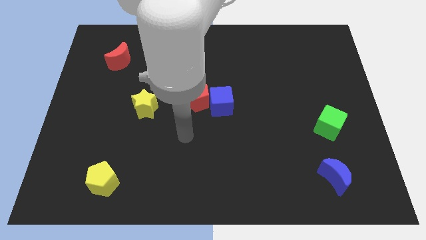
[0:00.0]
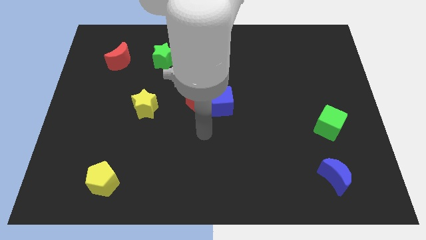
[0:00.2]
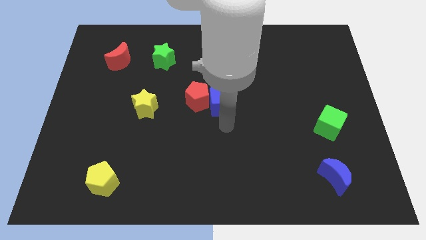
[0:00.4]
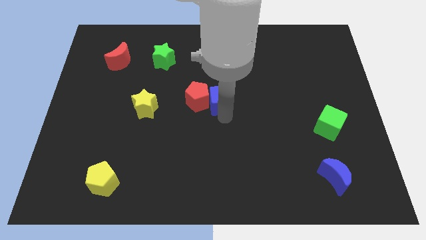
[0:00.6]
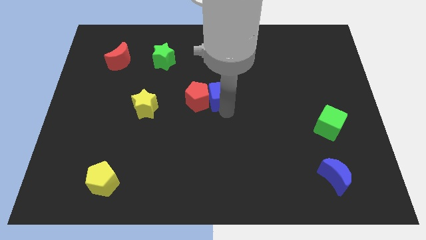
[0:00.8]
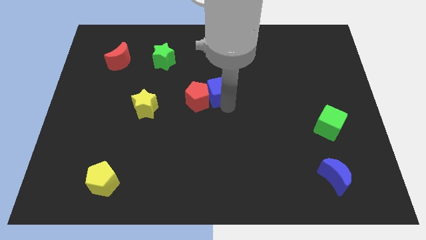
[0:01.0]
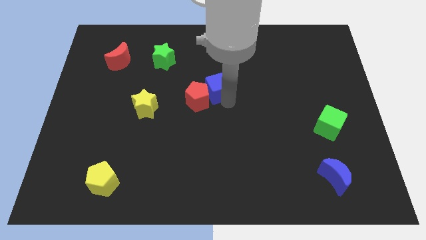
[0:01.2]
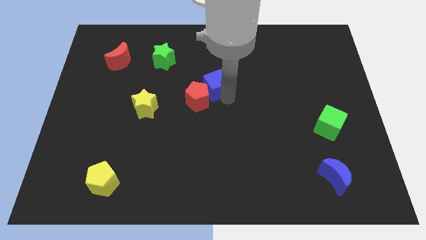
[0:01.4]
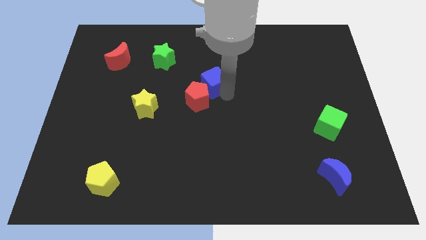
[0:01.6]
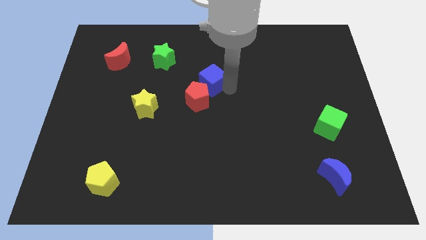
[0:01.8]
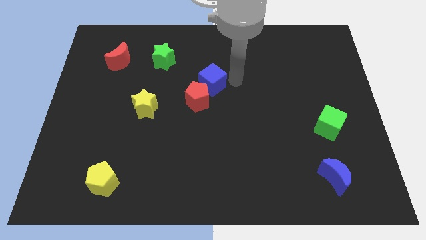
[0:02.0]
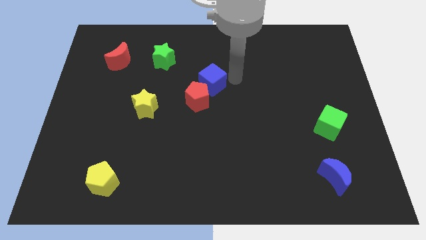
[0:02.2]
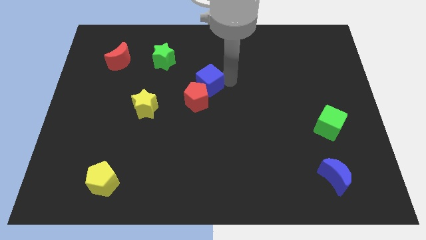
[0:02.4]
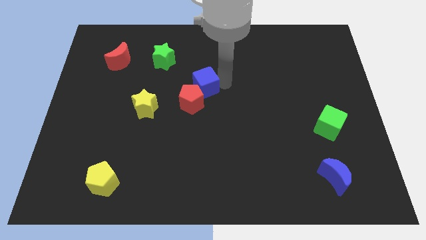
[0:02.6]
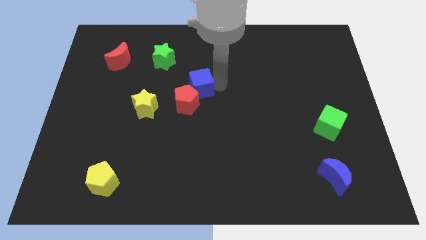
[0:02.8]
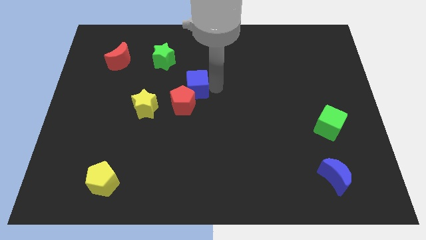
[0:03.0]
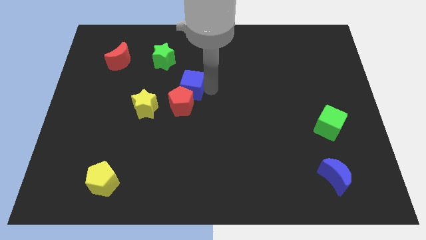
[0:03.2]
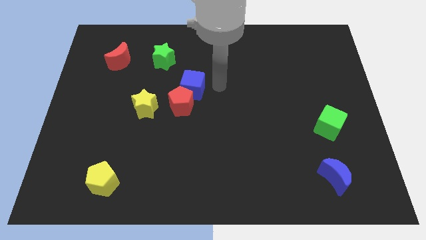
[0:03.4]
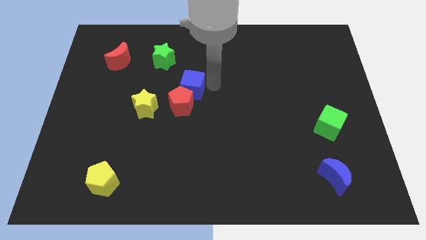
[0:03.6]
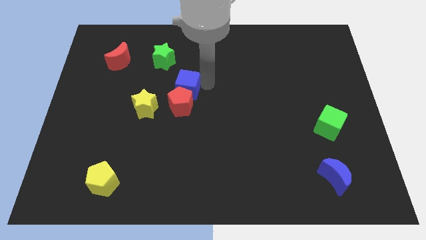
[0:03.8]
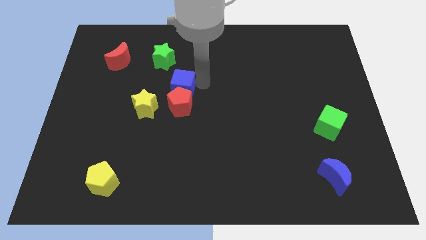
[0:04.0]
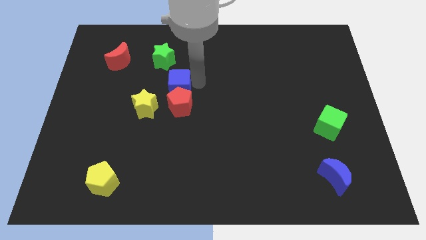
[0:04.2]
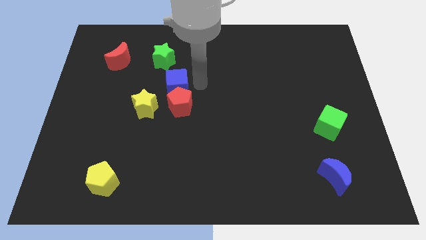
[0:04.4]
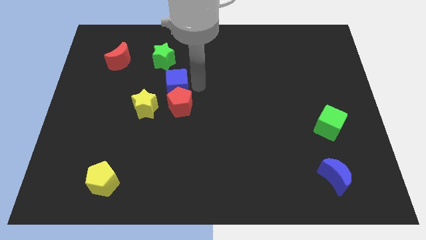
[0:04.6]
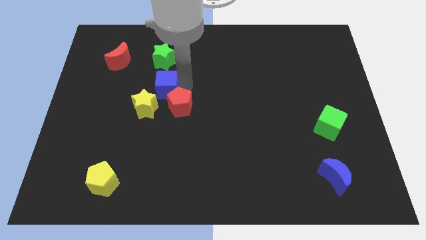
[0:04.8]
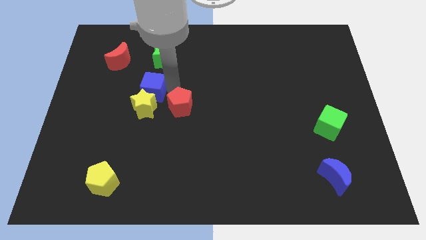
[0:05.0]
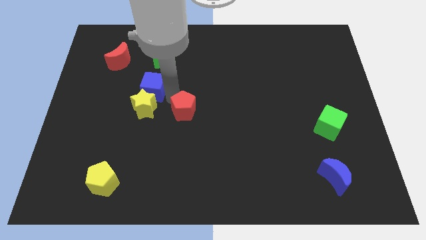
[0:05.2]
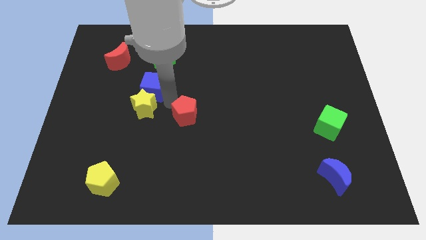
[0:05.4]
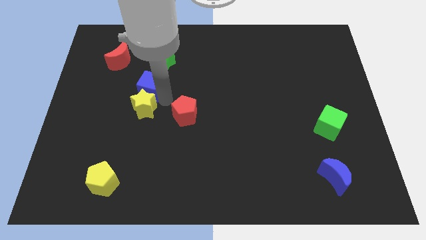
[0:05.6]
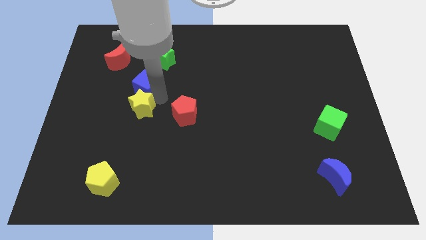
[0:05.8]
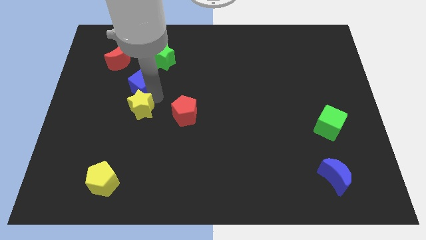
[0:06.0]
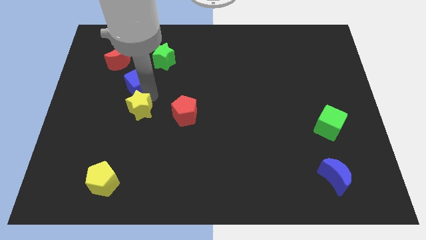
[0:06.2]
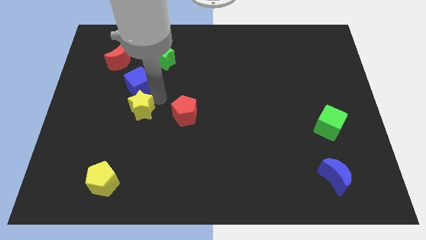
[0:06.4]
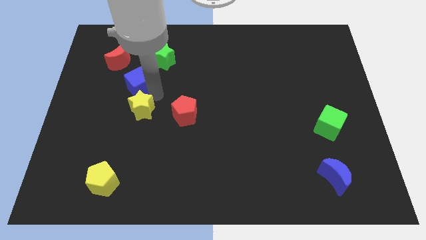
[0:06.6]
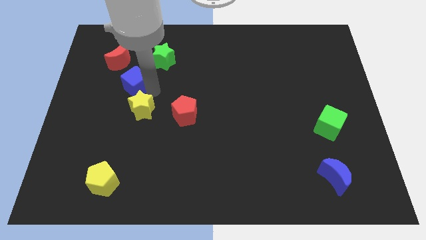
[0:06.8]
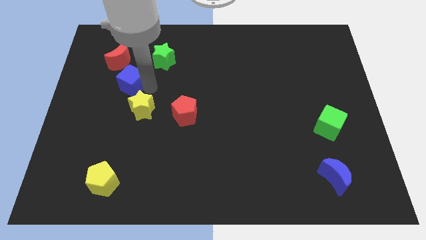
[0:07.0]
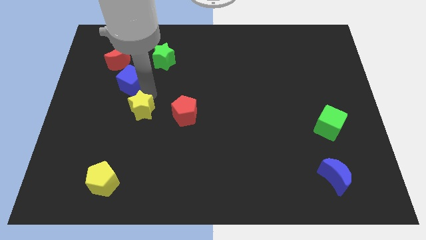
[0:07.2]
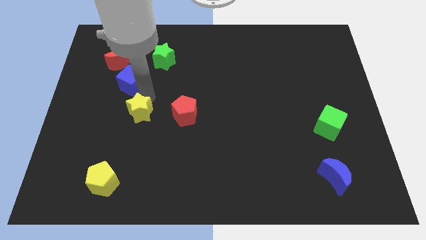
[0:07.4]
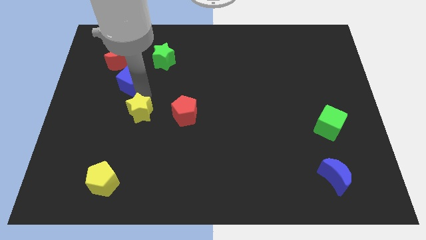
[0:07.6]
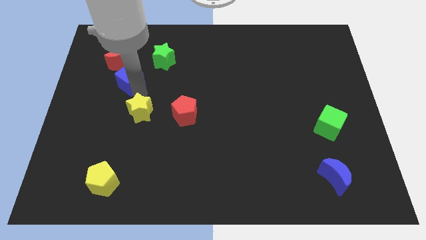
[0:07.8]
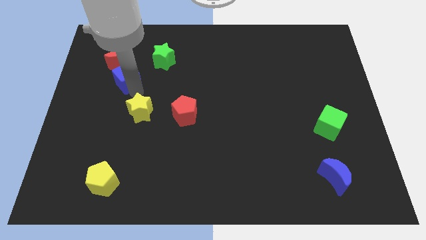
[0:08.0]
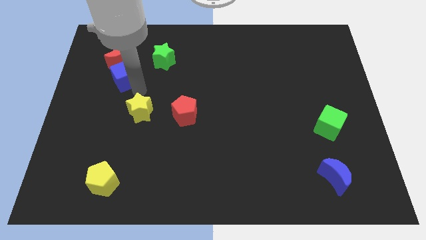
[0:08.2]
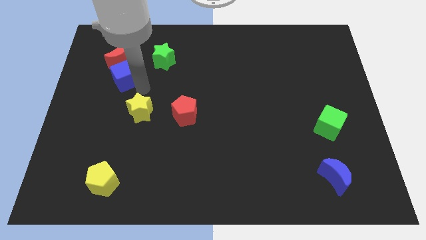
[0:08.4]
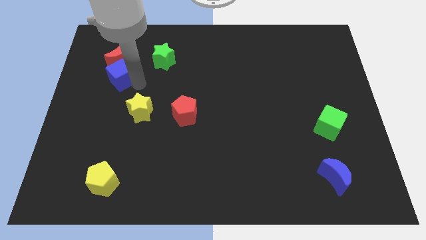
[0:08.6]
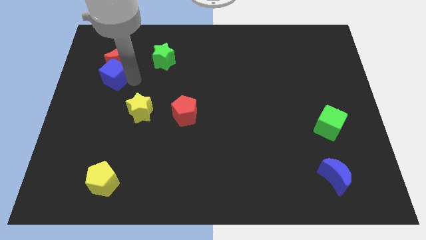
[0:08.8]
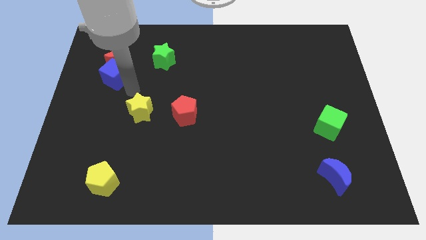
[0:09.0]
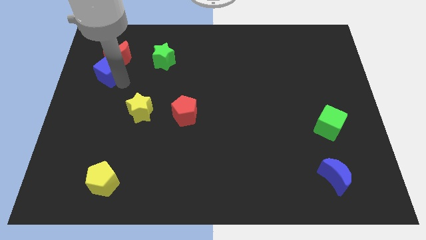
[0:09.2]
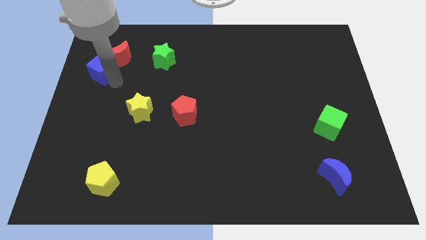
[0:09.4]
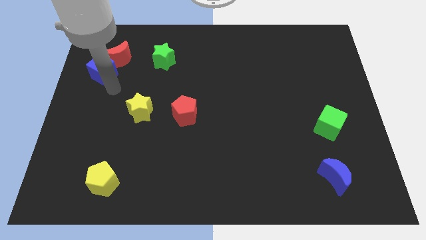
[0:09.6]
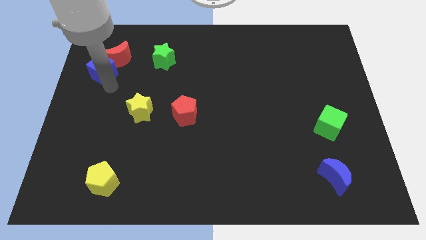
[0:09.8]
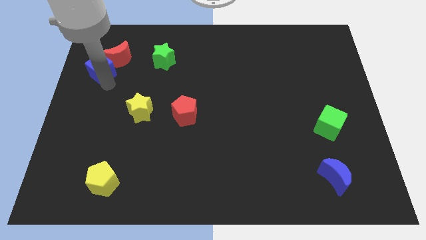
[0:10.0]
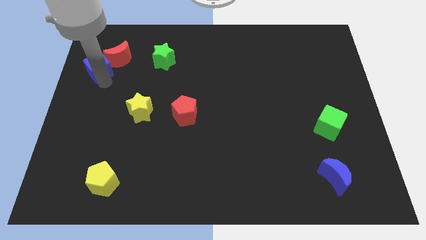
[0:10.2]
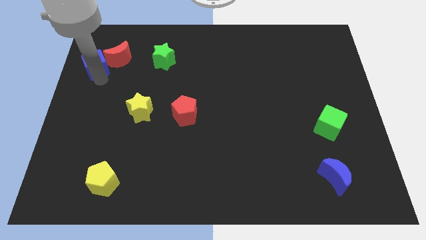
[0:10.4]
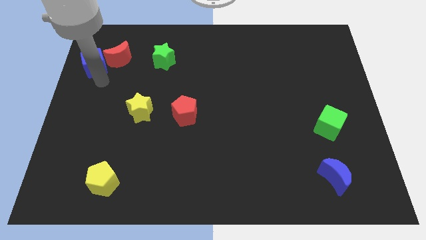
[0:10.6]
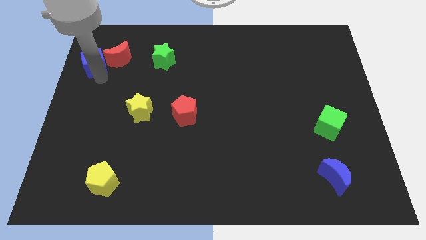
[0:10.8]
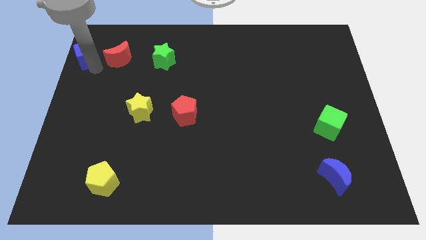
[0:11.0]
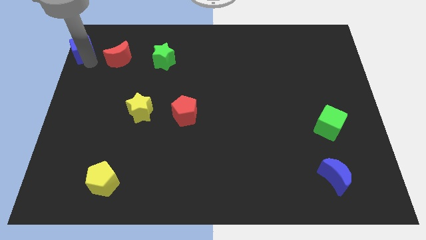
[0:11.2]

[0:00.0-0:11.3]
put the blue cube to the upper left corner
